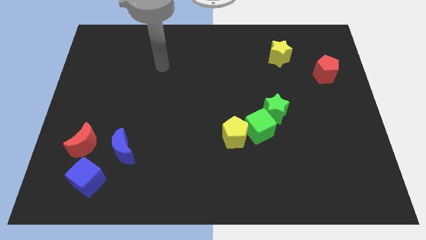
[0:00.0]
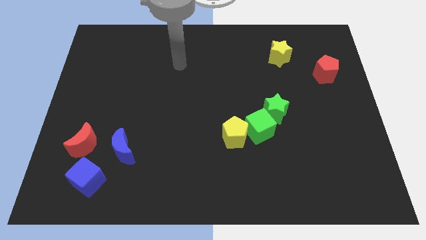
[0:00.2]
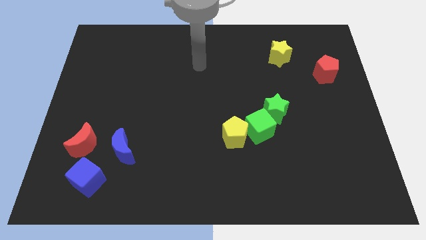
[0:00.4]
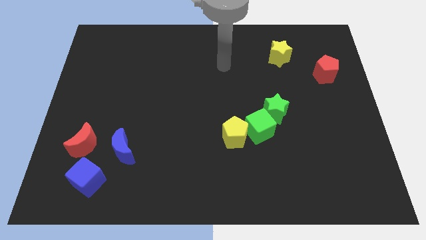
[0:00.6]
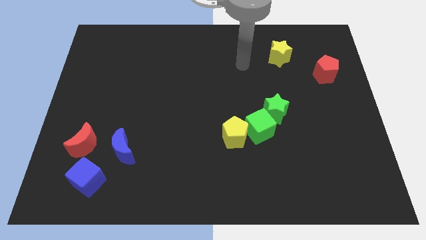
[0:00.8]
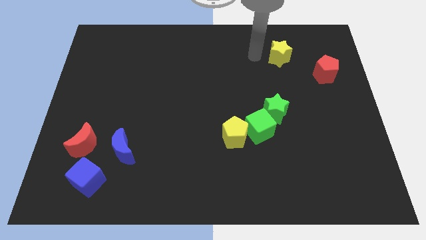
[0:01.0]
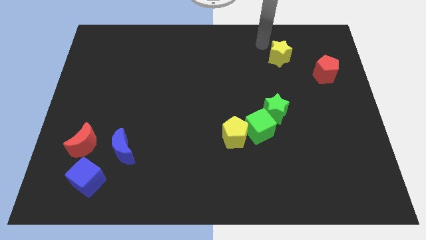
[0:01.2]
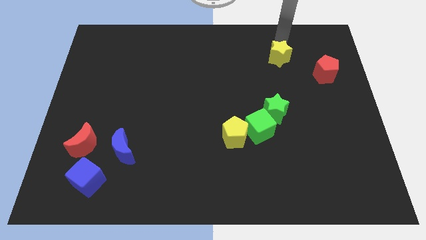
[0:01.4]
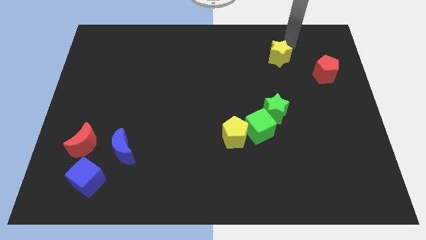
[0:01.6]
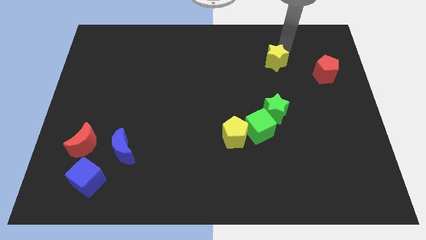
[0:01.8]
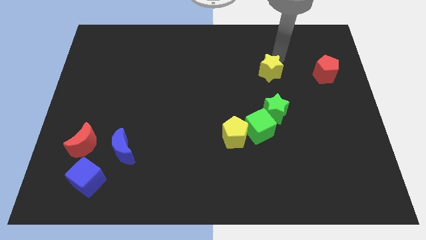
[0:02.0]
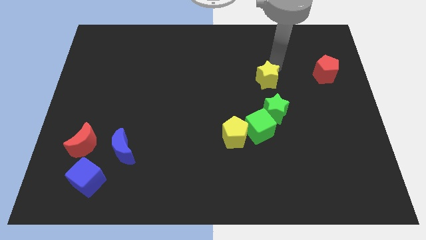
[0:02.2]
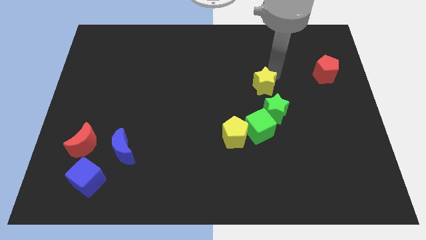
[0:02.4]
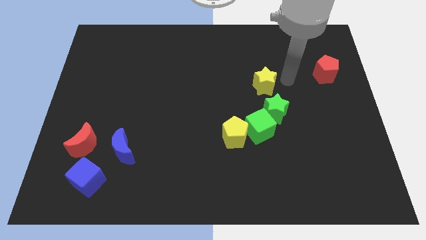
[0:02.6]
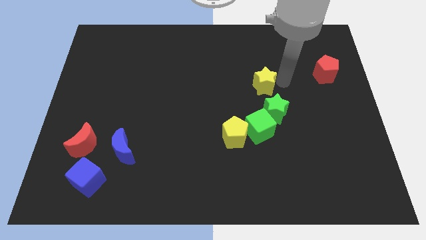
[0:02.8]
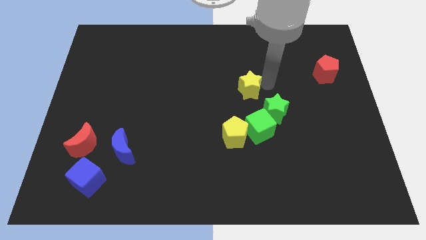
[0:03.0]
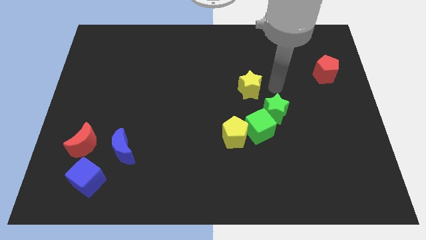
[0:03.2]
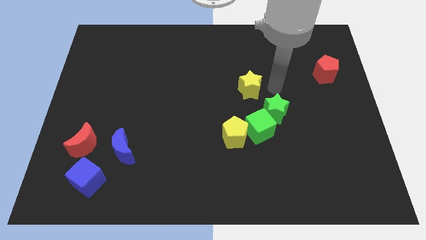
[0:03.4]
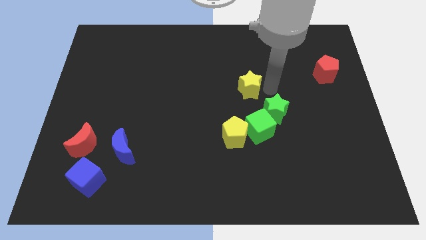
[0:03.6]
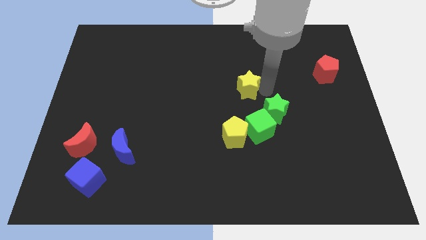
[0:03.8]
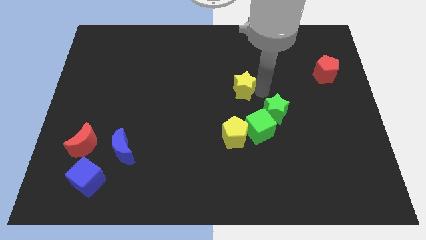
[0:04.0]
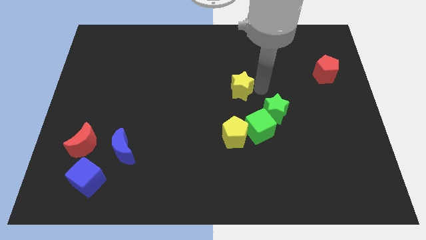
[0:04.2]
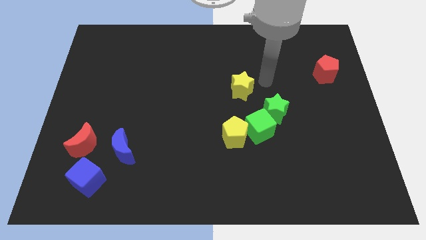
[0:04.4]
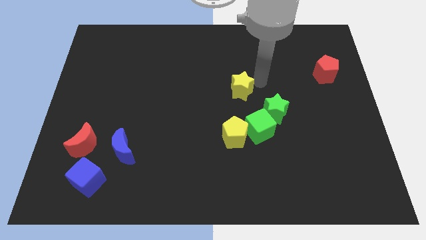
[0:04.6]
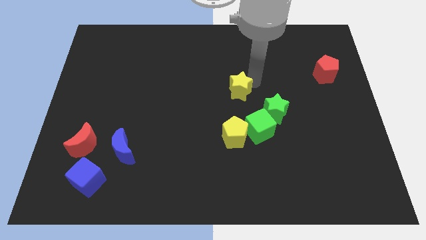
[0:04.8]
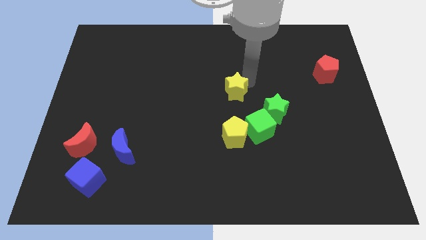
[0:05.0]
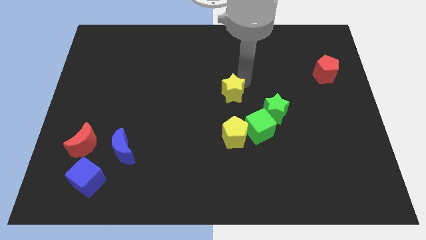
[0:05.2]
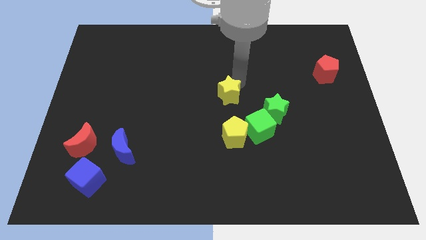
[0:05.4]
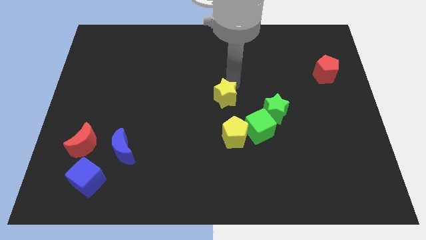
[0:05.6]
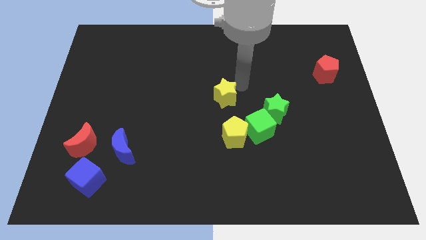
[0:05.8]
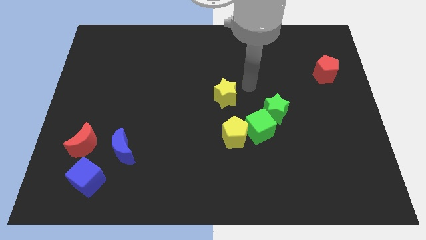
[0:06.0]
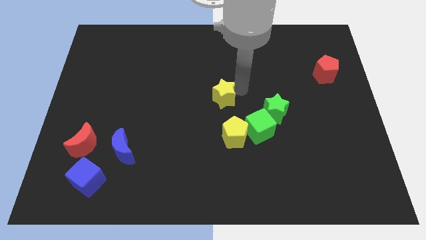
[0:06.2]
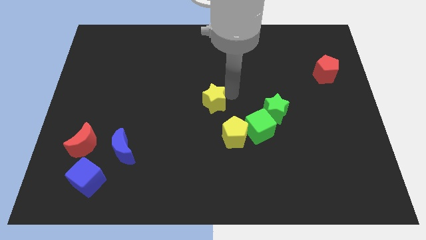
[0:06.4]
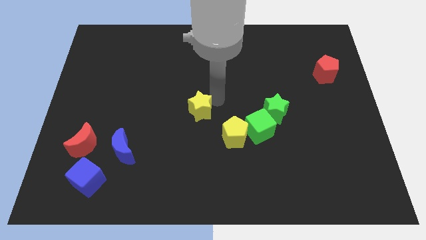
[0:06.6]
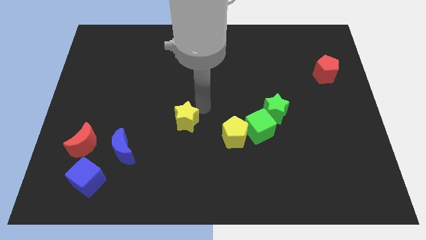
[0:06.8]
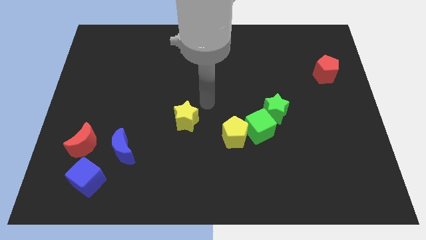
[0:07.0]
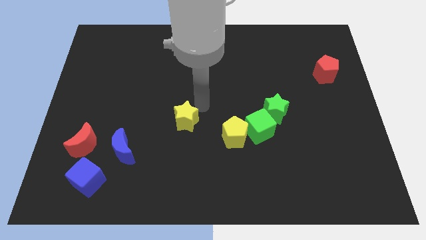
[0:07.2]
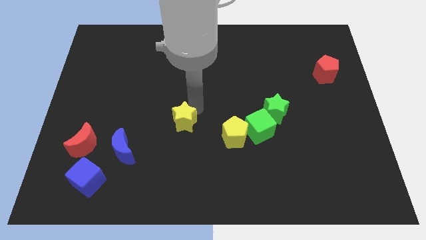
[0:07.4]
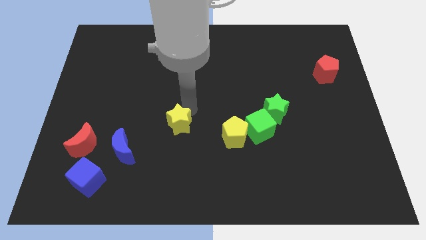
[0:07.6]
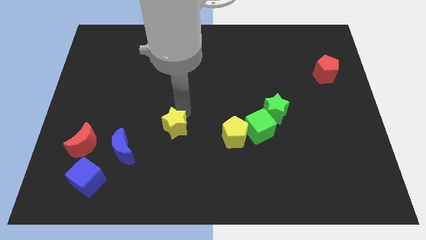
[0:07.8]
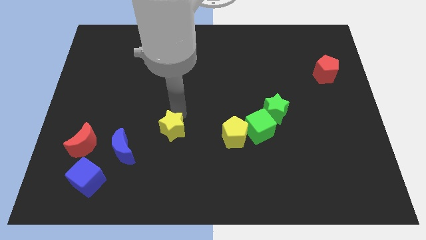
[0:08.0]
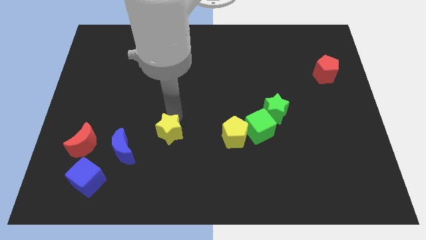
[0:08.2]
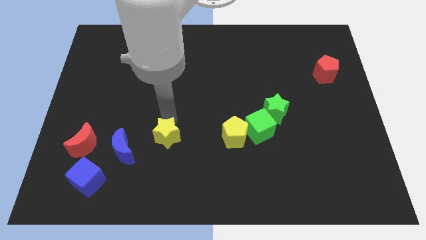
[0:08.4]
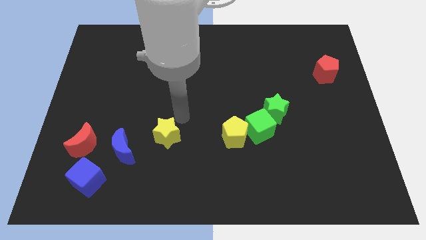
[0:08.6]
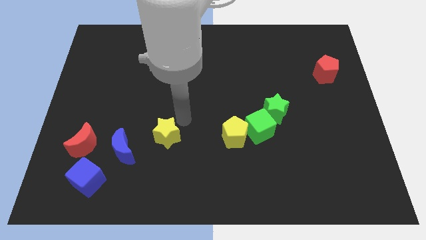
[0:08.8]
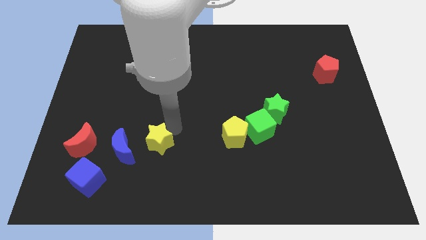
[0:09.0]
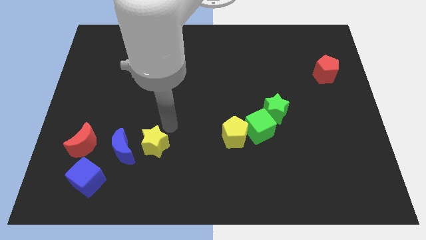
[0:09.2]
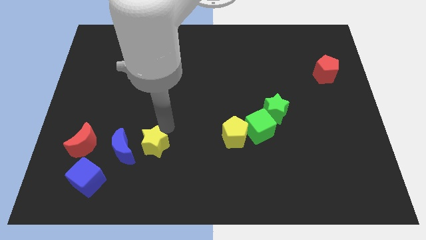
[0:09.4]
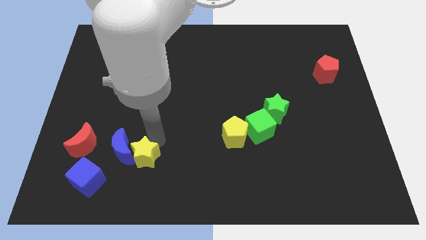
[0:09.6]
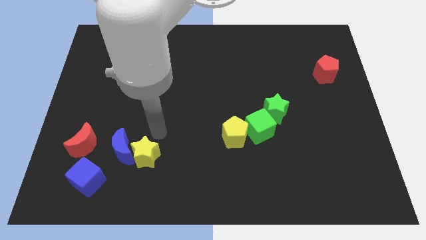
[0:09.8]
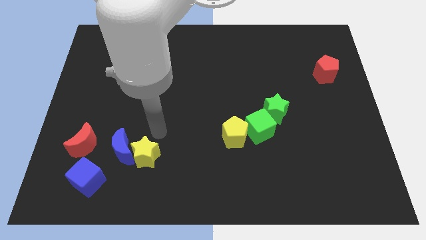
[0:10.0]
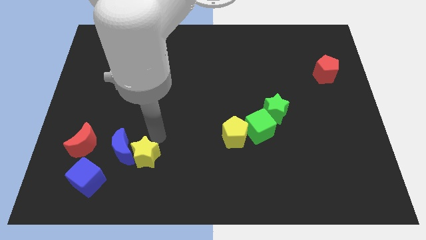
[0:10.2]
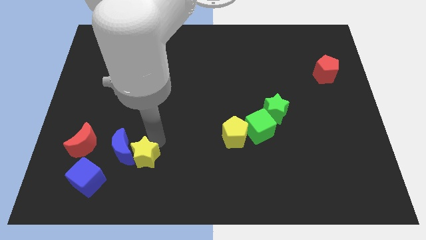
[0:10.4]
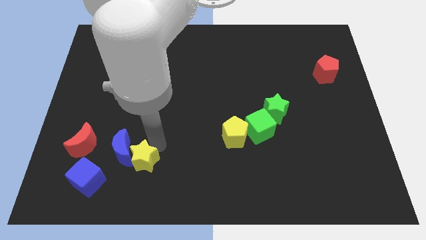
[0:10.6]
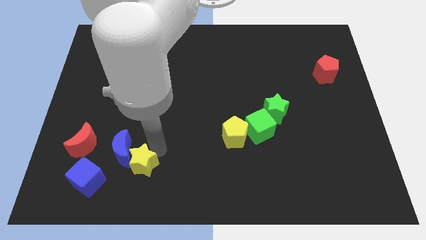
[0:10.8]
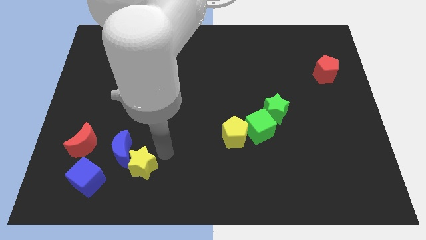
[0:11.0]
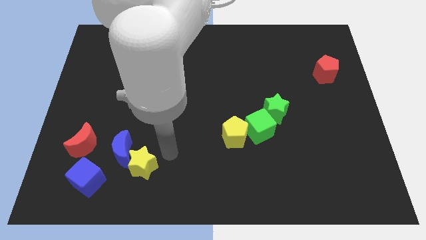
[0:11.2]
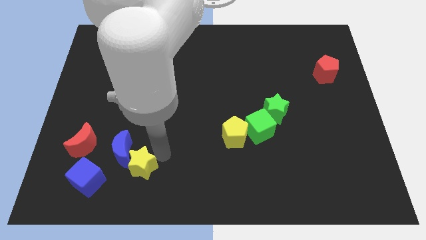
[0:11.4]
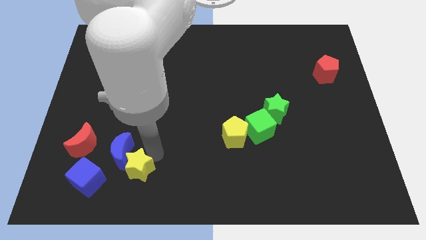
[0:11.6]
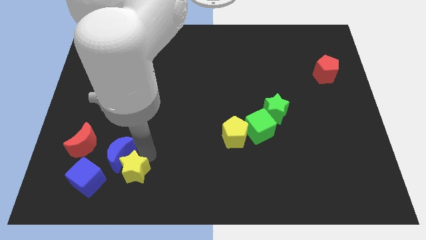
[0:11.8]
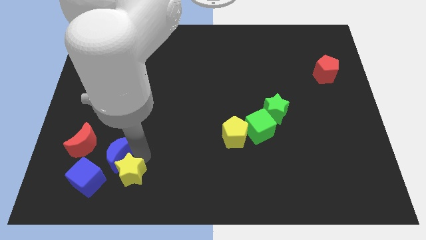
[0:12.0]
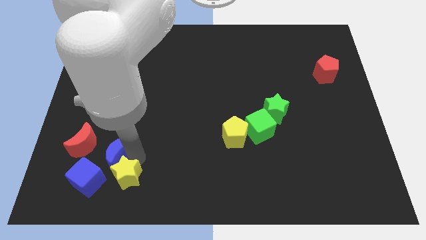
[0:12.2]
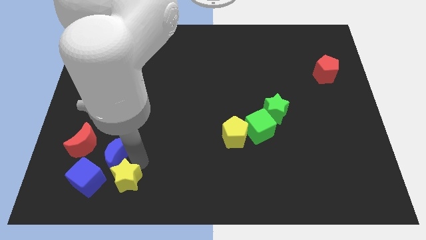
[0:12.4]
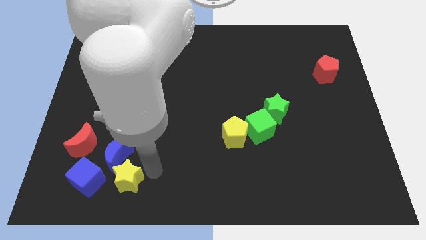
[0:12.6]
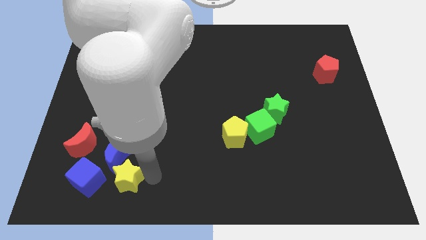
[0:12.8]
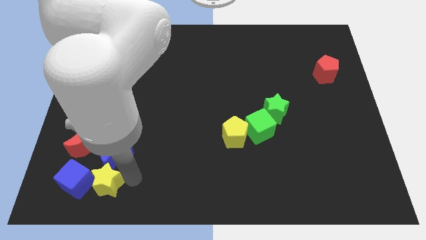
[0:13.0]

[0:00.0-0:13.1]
slide the yellow star to the blue cube
